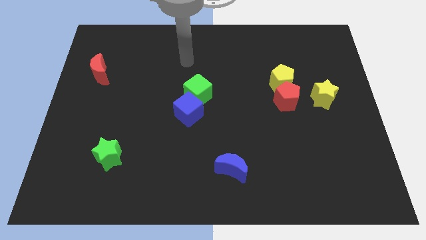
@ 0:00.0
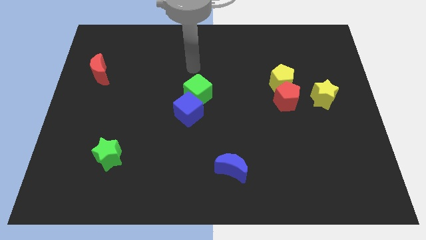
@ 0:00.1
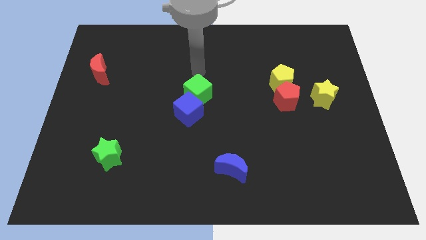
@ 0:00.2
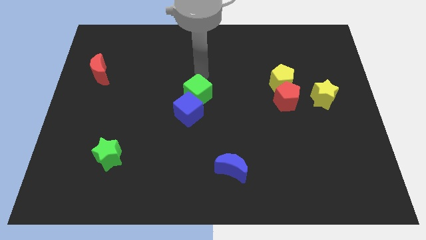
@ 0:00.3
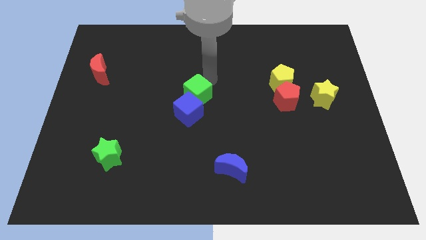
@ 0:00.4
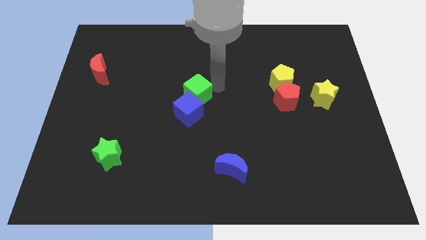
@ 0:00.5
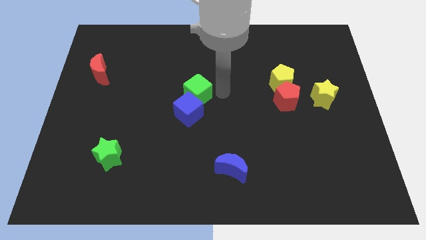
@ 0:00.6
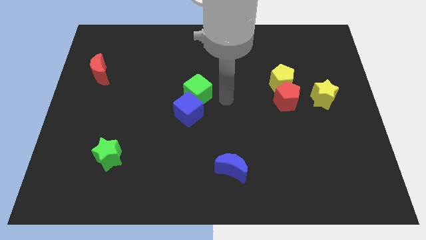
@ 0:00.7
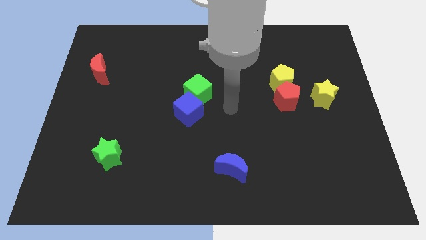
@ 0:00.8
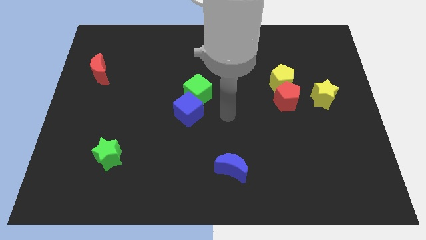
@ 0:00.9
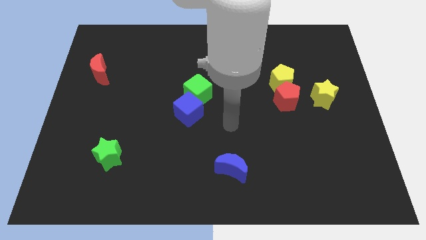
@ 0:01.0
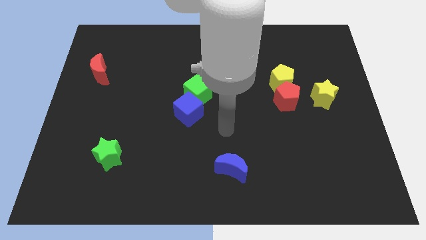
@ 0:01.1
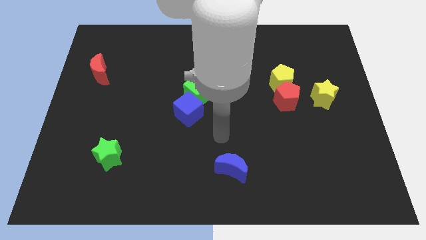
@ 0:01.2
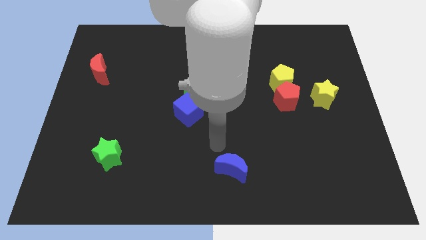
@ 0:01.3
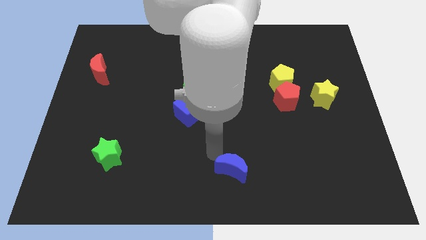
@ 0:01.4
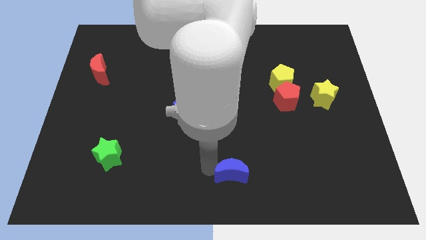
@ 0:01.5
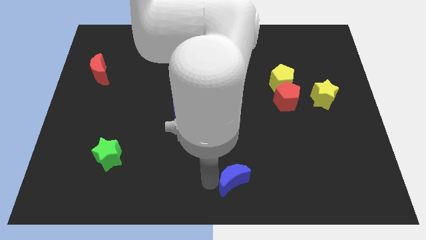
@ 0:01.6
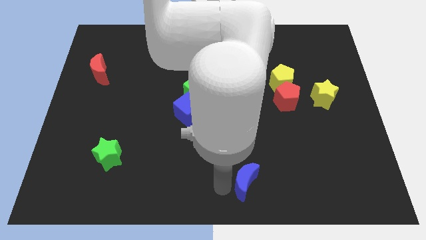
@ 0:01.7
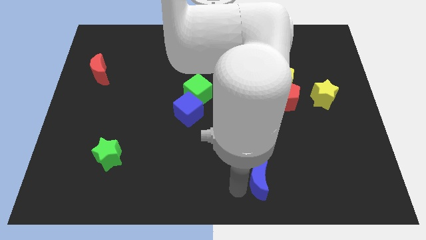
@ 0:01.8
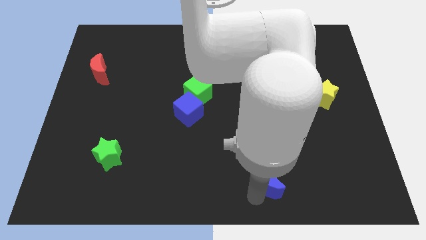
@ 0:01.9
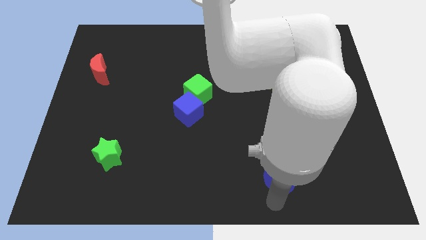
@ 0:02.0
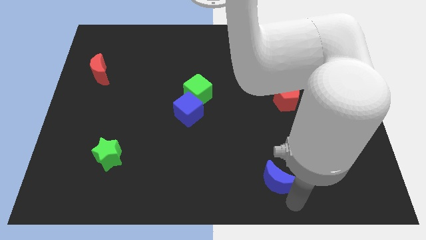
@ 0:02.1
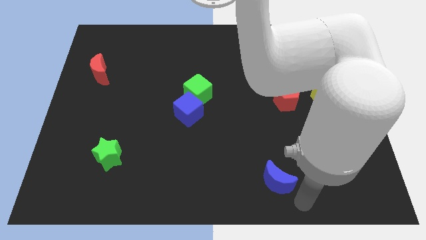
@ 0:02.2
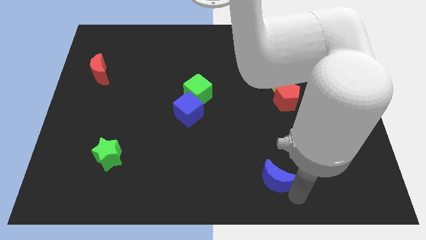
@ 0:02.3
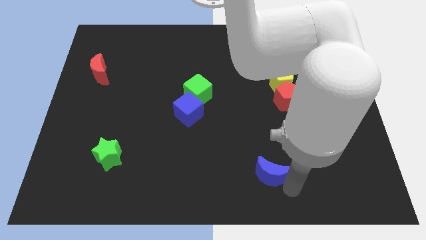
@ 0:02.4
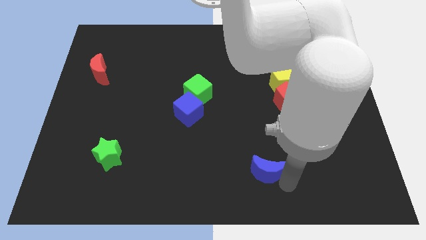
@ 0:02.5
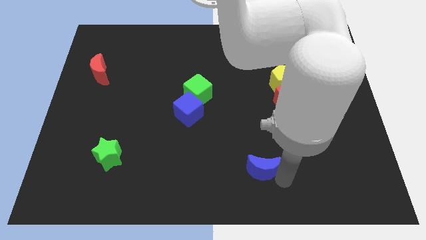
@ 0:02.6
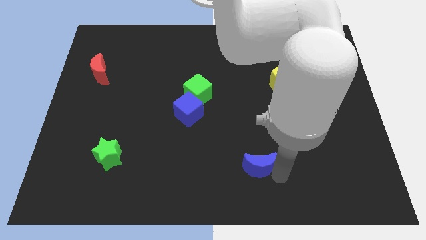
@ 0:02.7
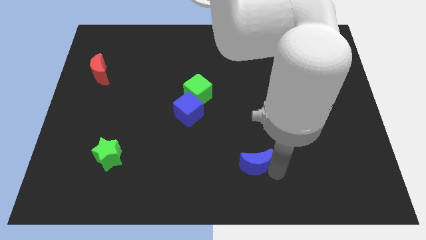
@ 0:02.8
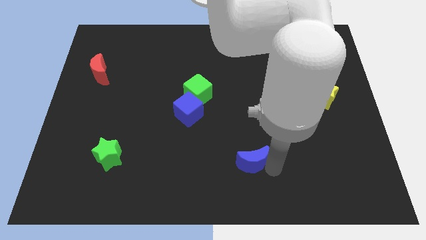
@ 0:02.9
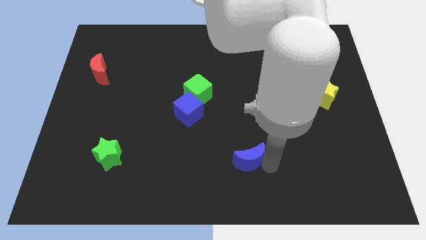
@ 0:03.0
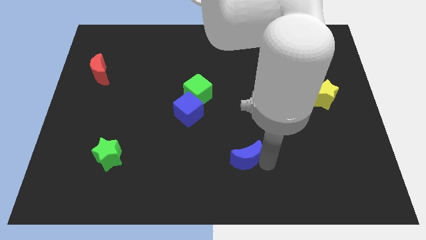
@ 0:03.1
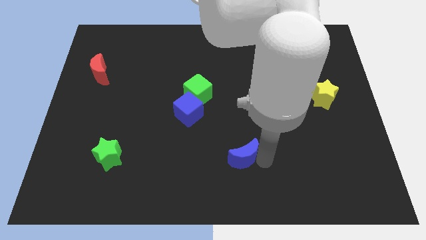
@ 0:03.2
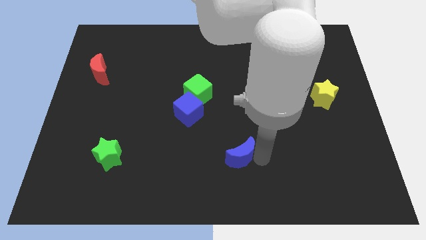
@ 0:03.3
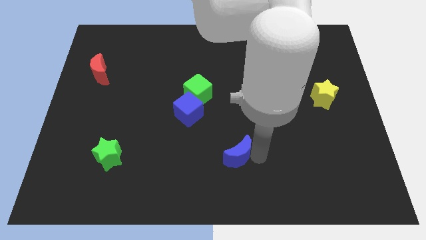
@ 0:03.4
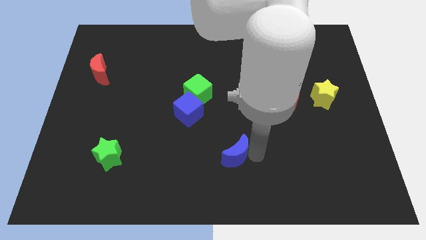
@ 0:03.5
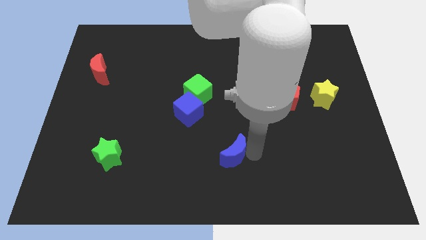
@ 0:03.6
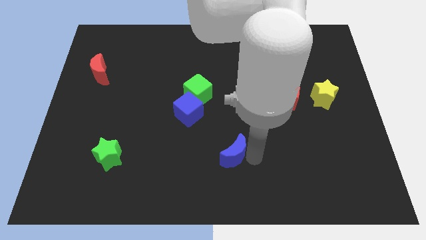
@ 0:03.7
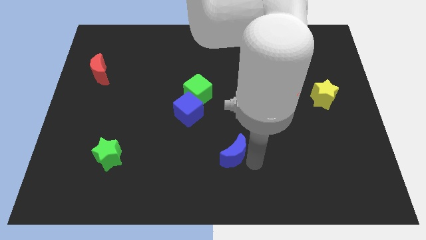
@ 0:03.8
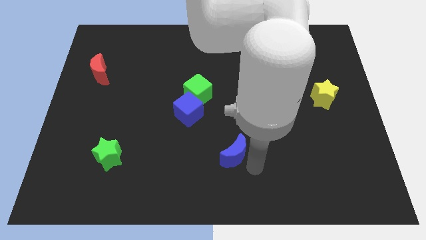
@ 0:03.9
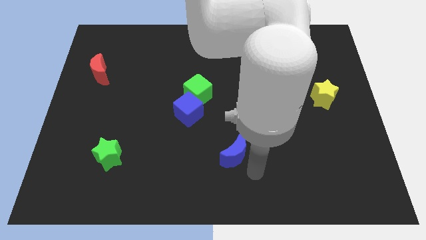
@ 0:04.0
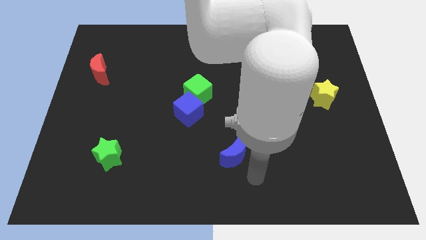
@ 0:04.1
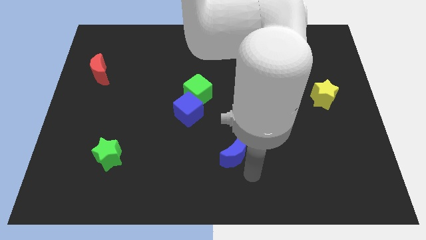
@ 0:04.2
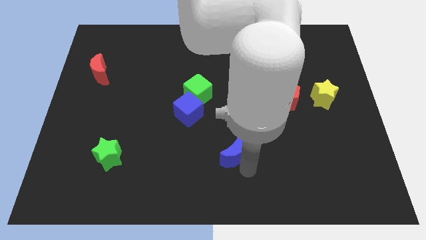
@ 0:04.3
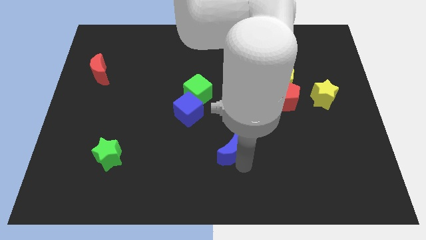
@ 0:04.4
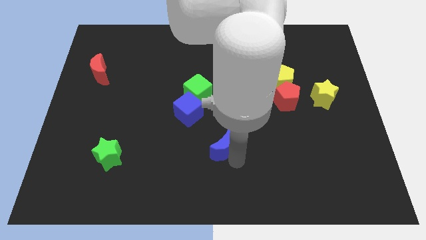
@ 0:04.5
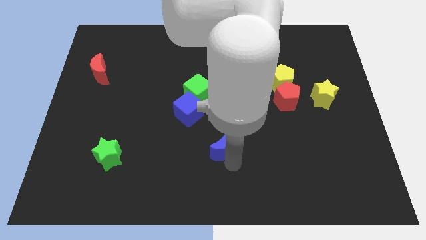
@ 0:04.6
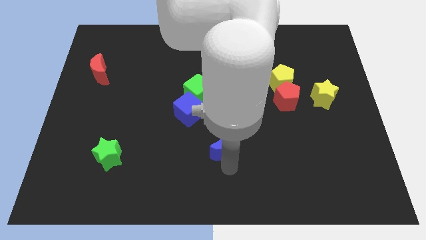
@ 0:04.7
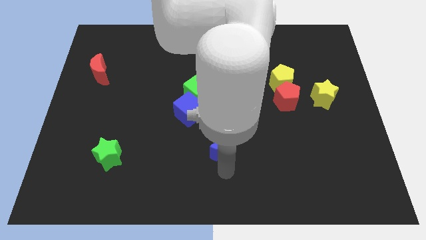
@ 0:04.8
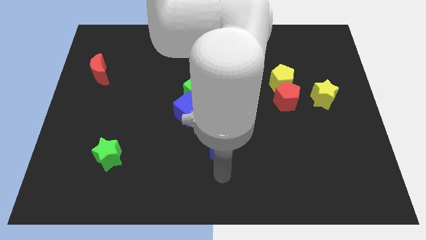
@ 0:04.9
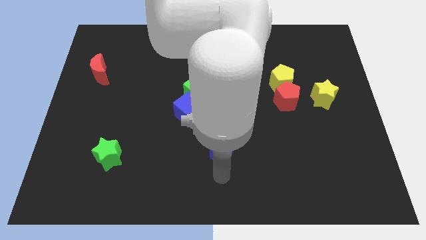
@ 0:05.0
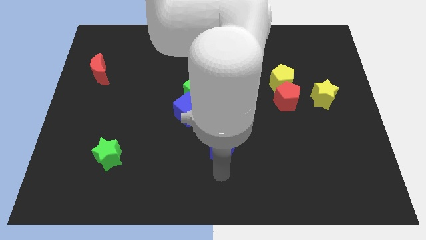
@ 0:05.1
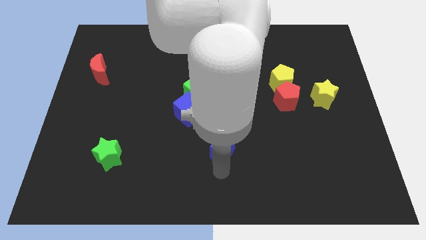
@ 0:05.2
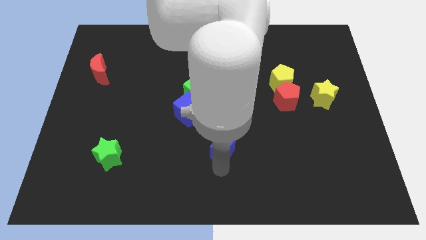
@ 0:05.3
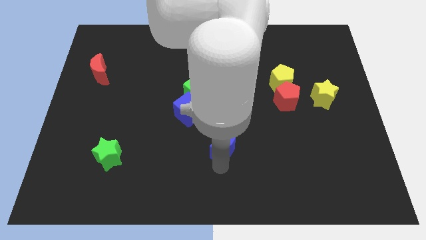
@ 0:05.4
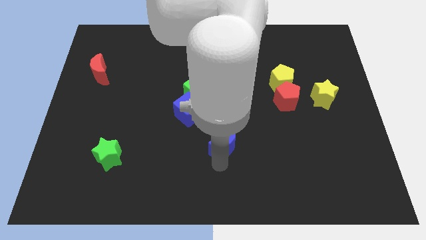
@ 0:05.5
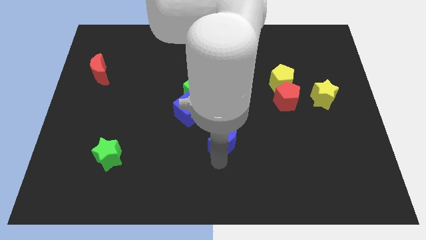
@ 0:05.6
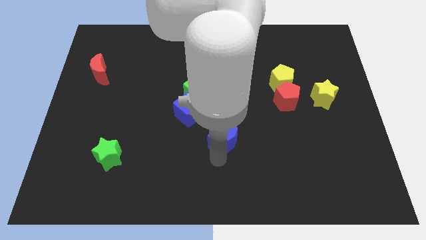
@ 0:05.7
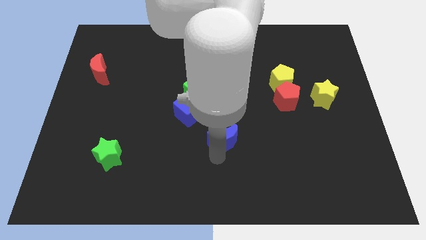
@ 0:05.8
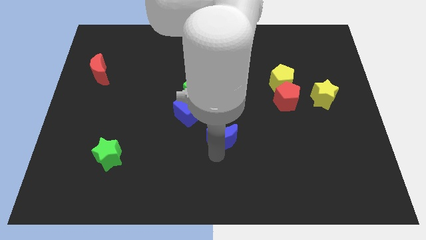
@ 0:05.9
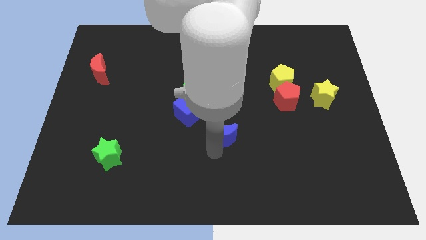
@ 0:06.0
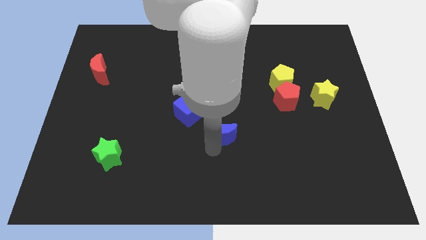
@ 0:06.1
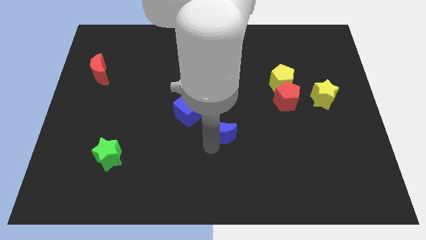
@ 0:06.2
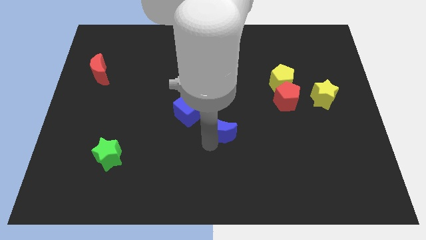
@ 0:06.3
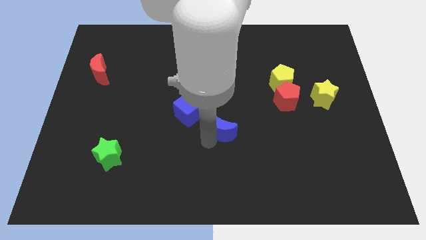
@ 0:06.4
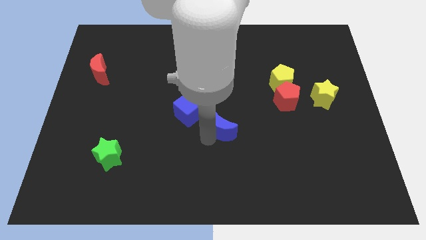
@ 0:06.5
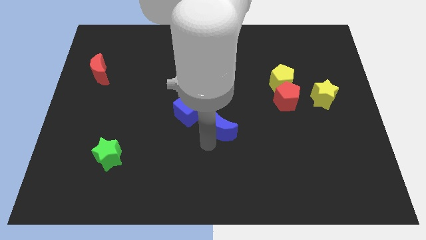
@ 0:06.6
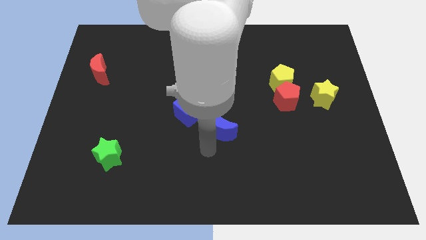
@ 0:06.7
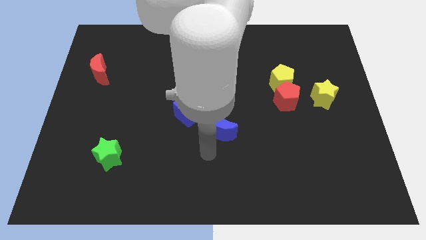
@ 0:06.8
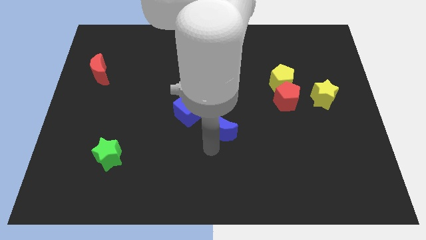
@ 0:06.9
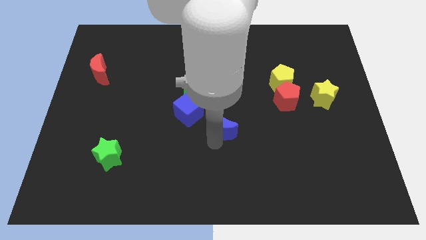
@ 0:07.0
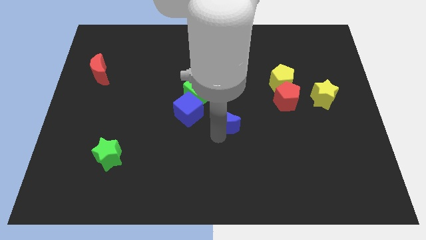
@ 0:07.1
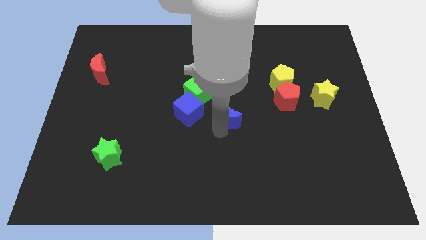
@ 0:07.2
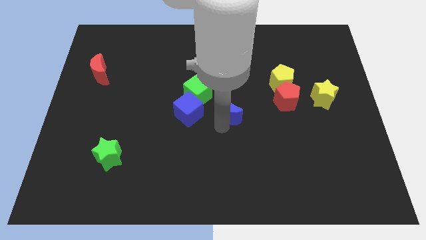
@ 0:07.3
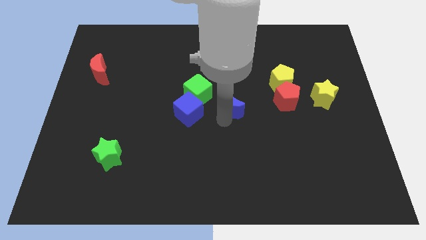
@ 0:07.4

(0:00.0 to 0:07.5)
push the blue moon just right of the green cube
